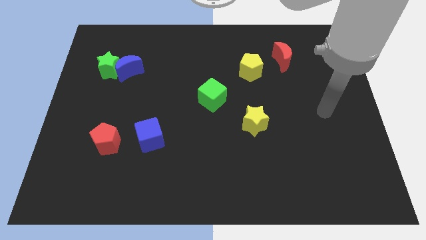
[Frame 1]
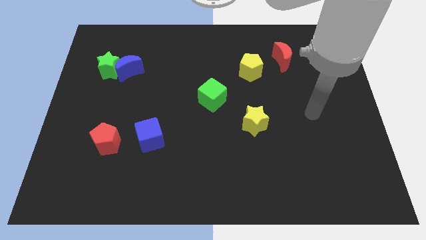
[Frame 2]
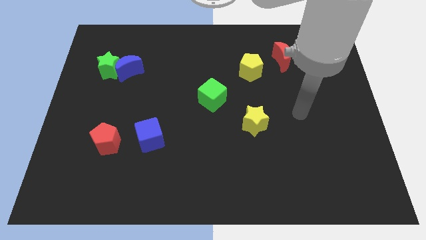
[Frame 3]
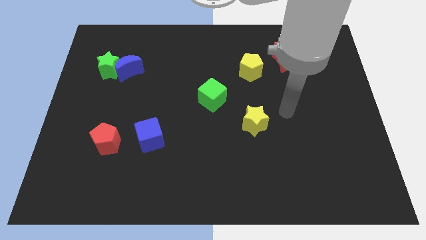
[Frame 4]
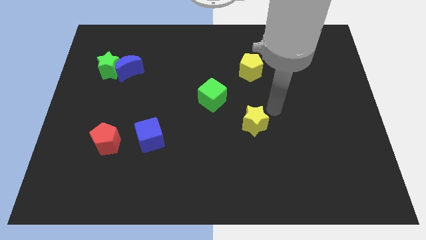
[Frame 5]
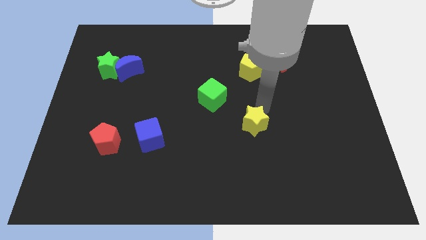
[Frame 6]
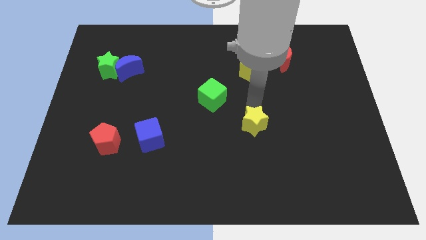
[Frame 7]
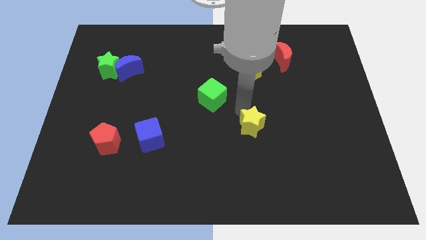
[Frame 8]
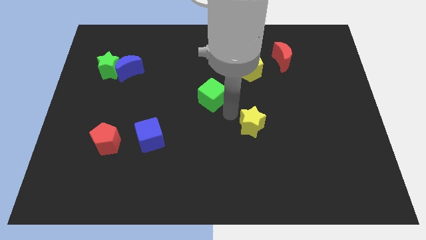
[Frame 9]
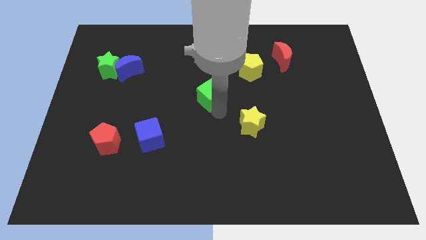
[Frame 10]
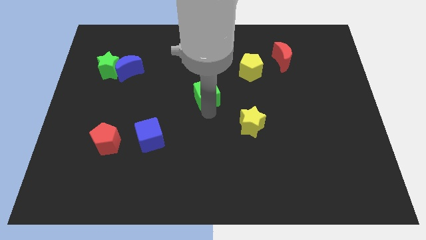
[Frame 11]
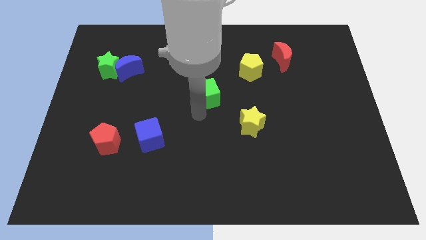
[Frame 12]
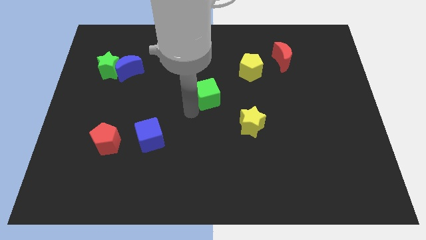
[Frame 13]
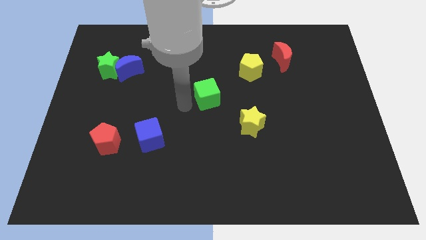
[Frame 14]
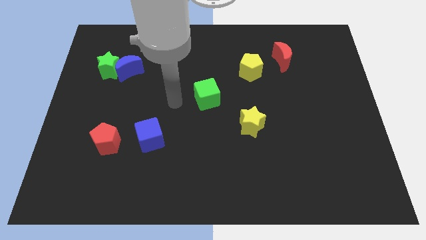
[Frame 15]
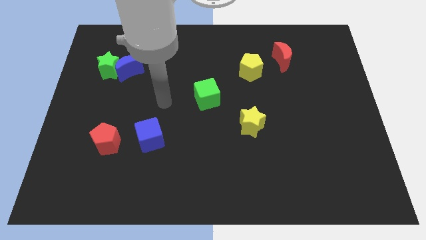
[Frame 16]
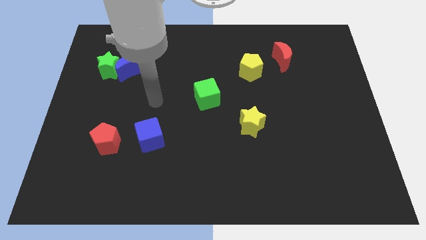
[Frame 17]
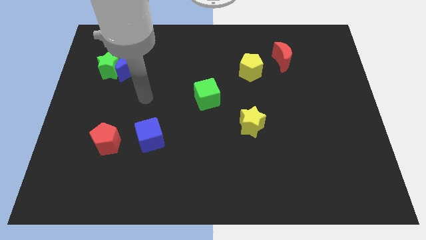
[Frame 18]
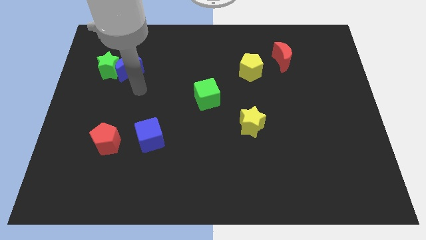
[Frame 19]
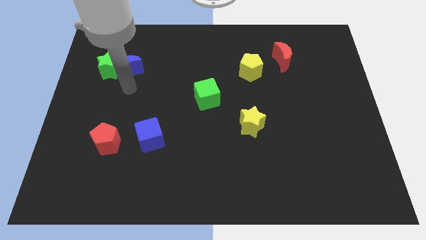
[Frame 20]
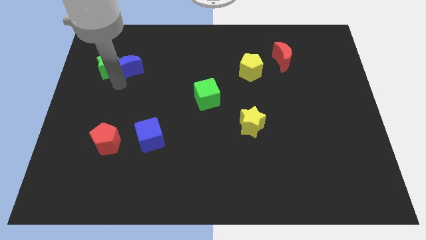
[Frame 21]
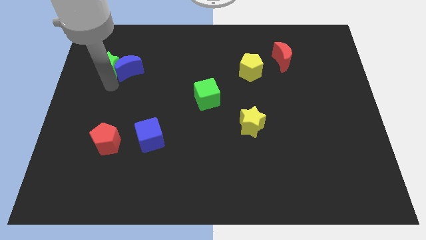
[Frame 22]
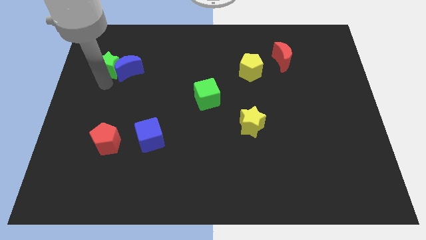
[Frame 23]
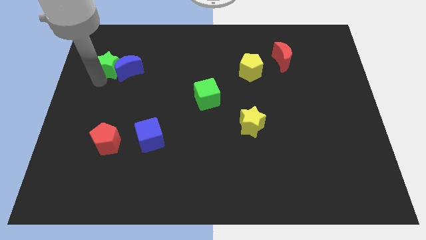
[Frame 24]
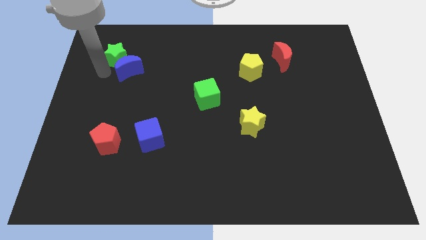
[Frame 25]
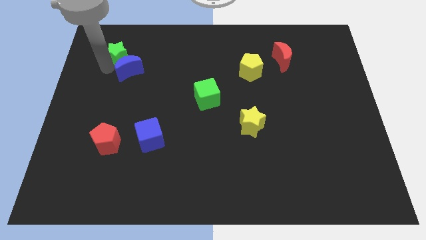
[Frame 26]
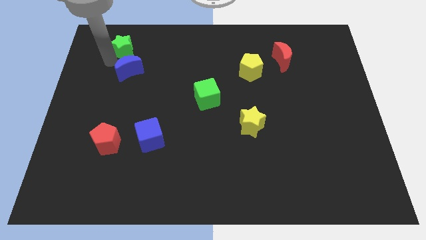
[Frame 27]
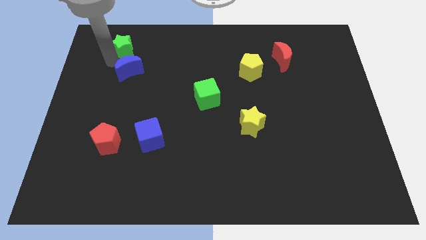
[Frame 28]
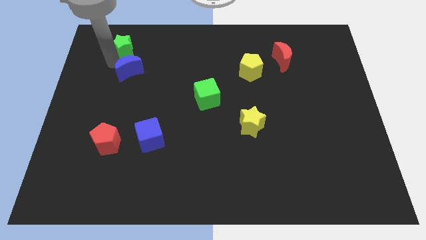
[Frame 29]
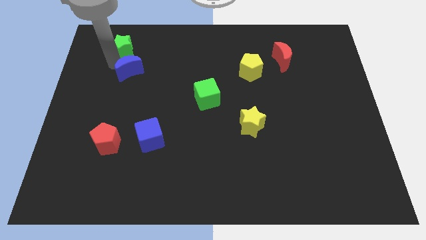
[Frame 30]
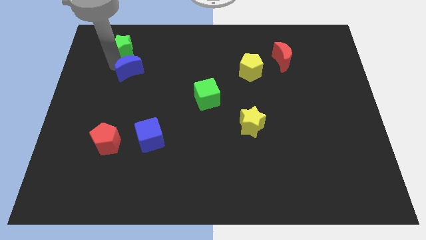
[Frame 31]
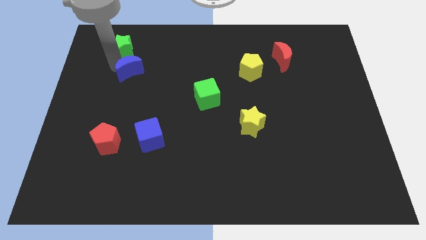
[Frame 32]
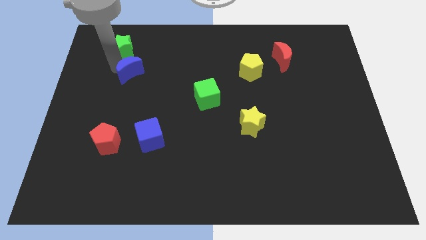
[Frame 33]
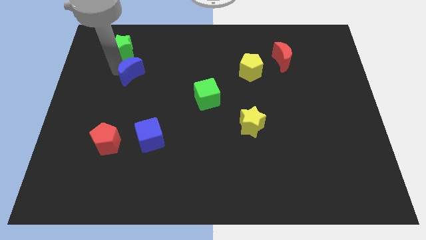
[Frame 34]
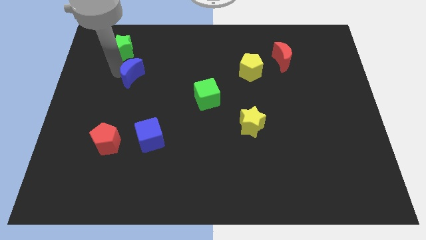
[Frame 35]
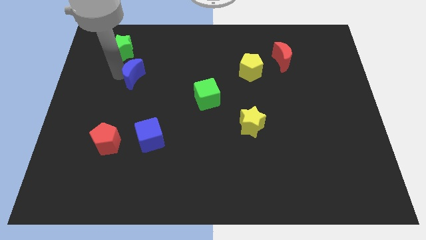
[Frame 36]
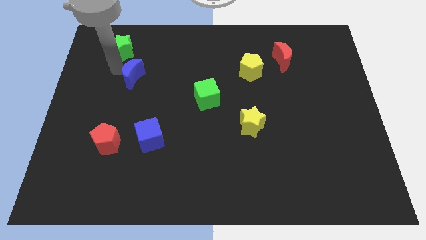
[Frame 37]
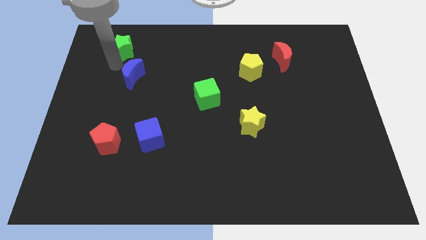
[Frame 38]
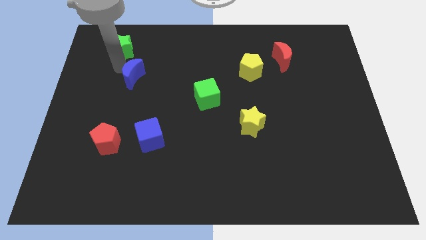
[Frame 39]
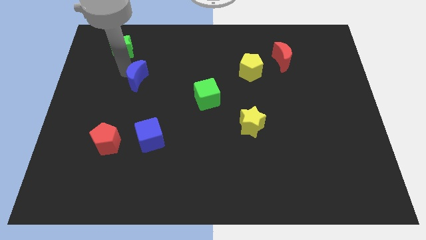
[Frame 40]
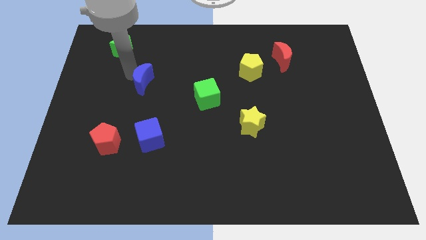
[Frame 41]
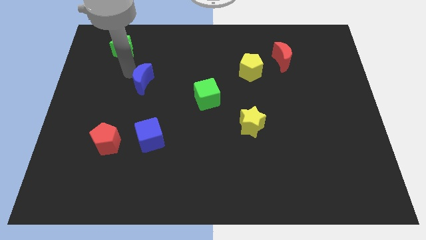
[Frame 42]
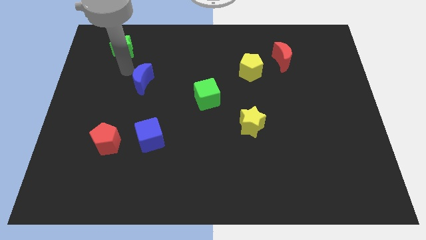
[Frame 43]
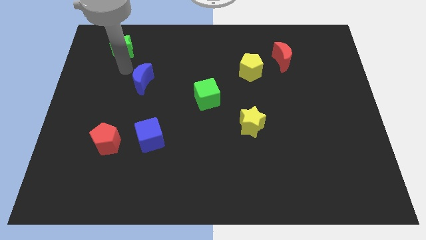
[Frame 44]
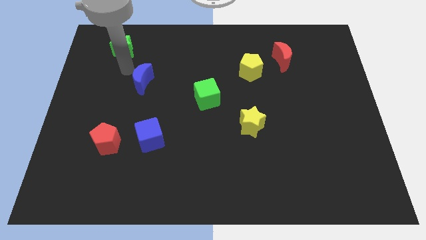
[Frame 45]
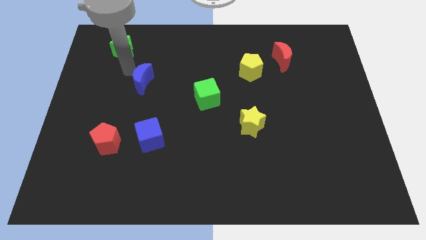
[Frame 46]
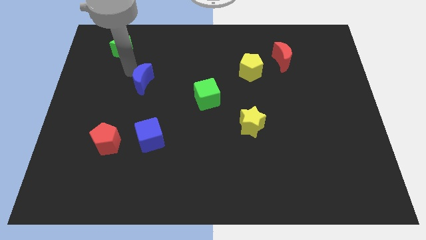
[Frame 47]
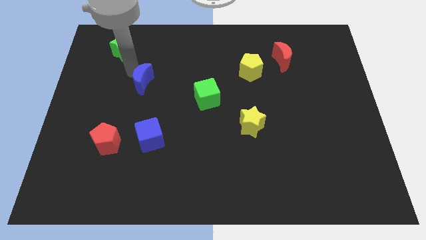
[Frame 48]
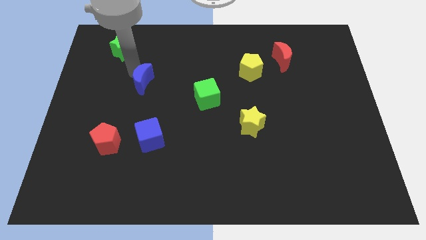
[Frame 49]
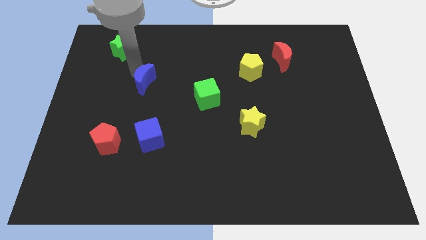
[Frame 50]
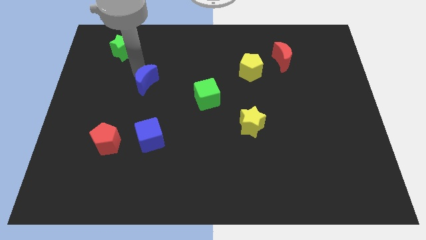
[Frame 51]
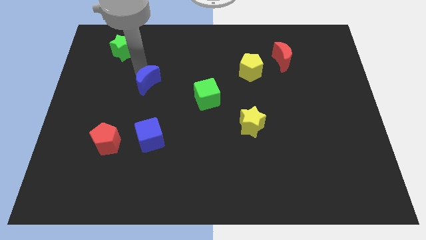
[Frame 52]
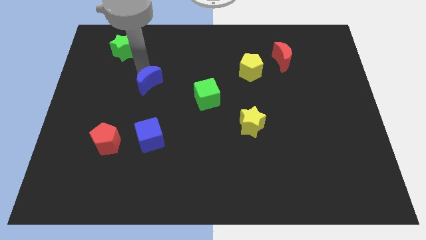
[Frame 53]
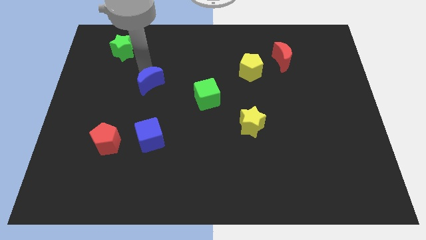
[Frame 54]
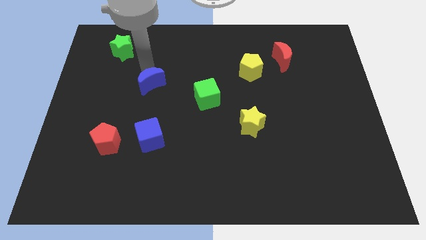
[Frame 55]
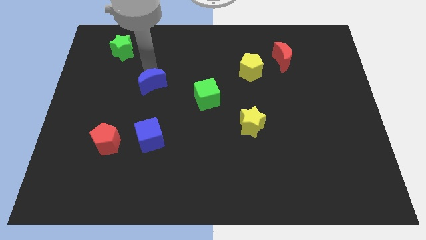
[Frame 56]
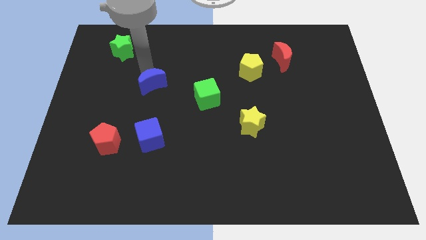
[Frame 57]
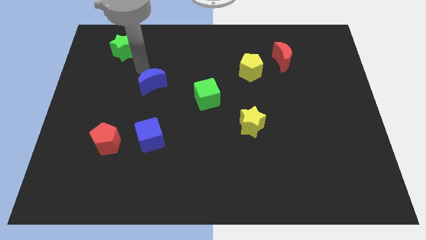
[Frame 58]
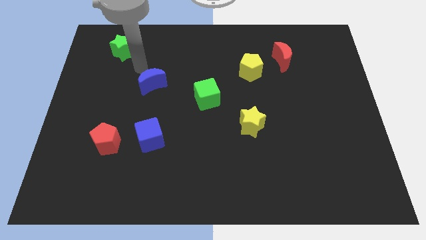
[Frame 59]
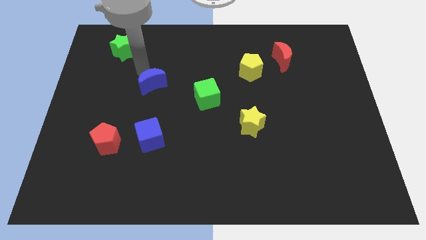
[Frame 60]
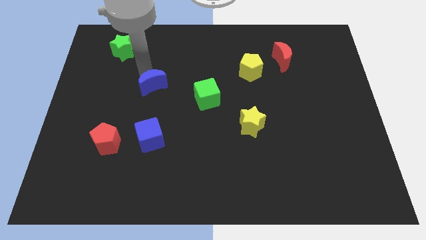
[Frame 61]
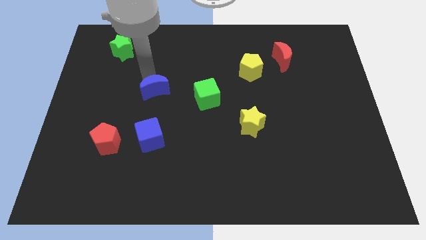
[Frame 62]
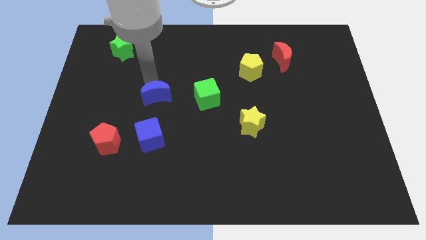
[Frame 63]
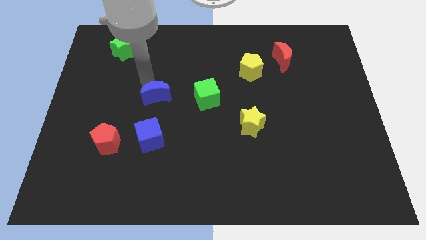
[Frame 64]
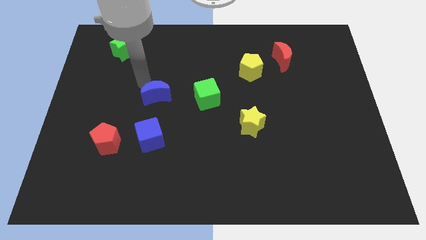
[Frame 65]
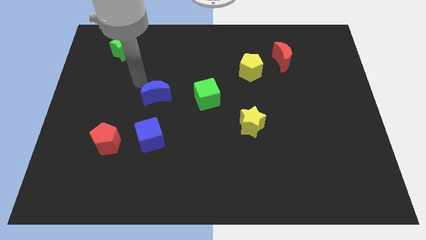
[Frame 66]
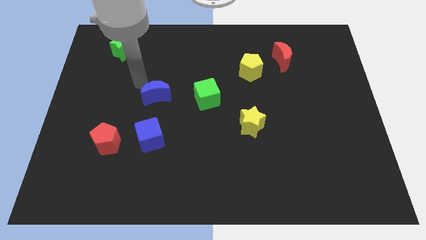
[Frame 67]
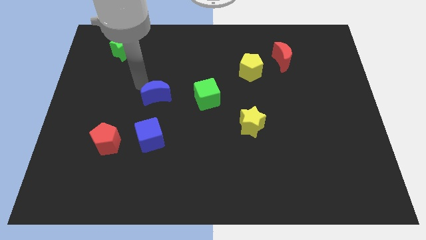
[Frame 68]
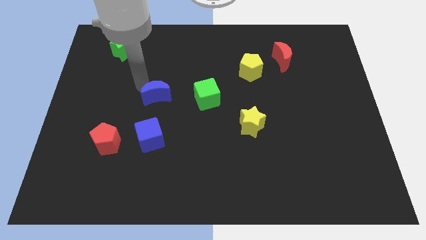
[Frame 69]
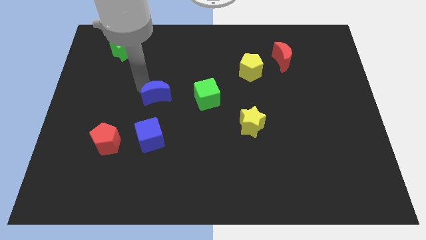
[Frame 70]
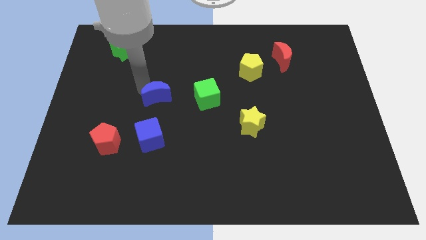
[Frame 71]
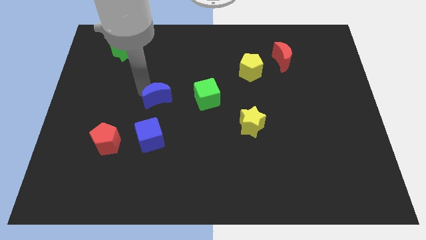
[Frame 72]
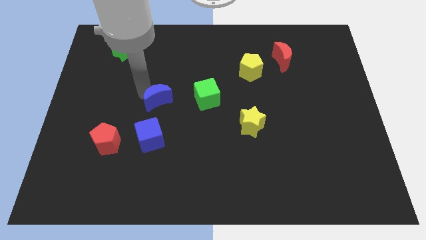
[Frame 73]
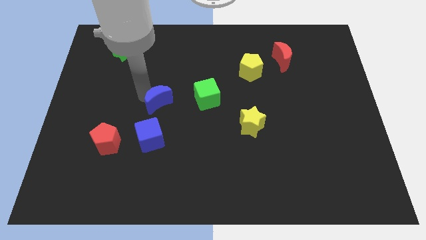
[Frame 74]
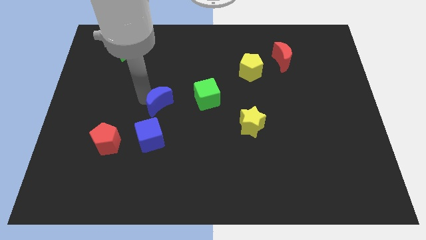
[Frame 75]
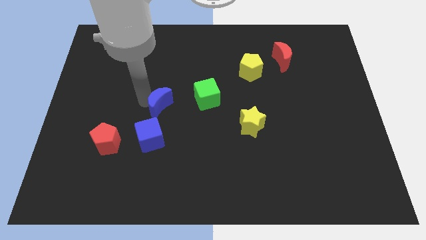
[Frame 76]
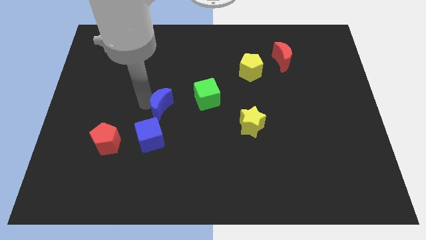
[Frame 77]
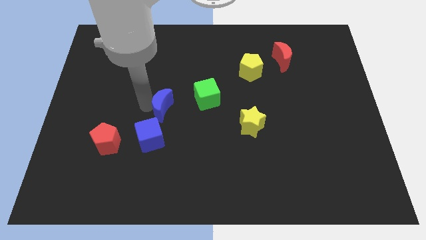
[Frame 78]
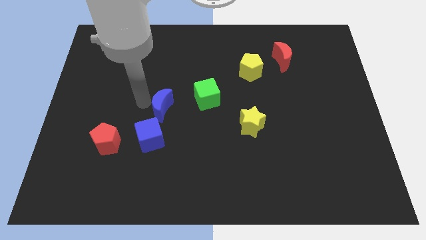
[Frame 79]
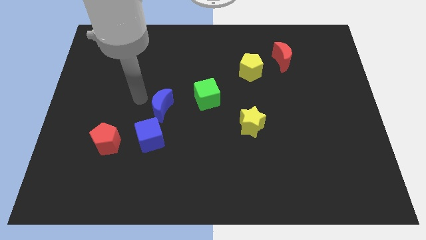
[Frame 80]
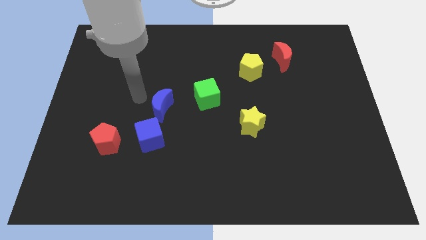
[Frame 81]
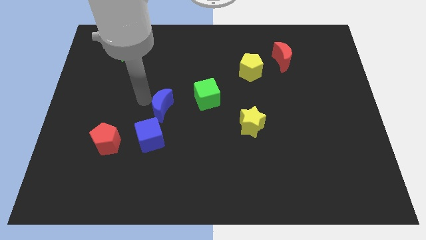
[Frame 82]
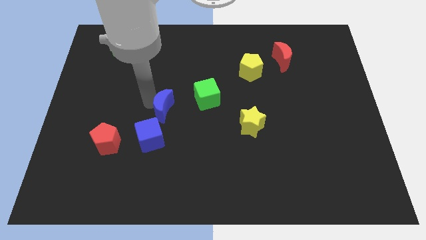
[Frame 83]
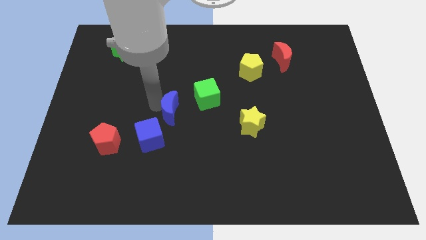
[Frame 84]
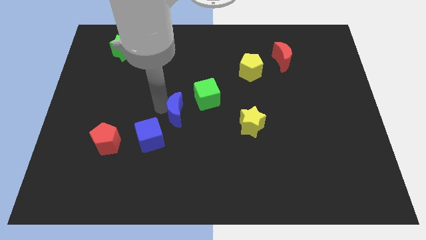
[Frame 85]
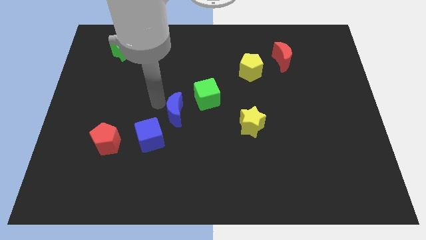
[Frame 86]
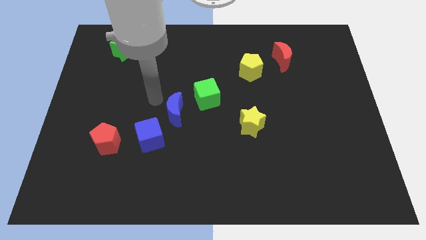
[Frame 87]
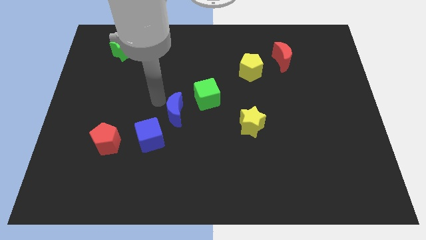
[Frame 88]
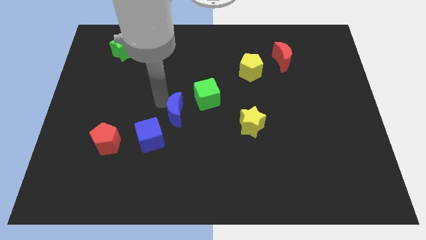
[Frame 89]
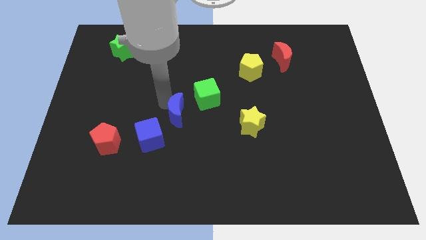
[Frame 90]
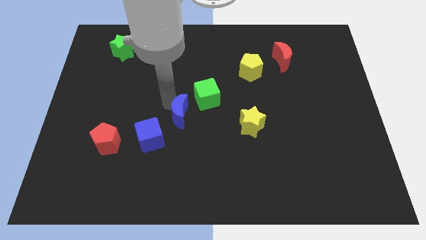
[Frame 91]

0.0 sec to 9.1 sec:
move the blue moon downwards and to the right
